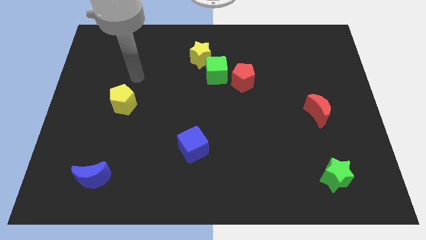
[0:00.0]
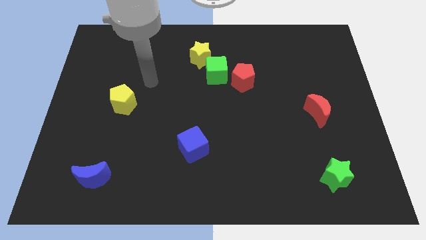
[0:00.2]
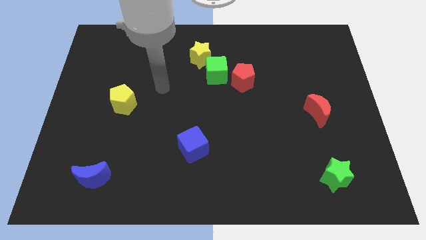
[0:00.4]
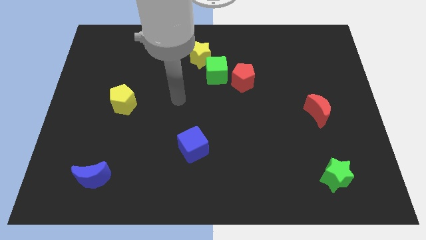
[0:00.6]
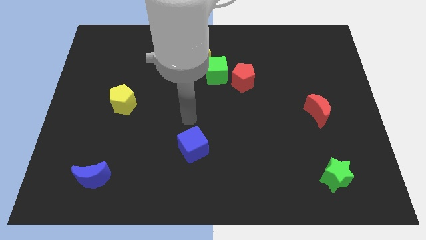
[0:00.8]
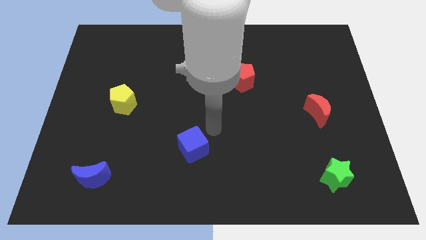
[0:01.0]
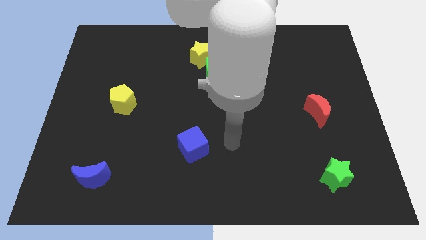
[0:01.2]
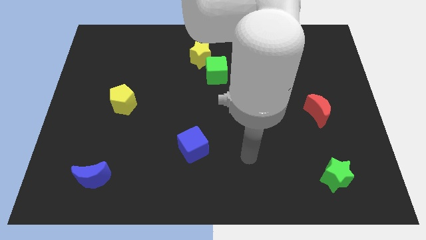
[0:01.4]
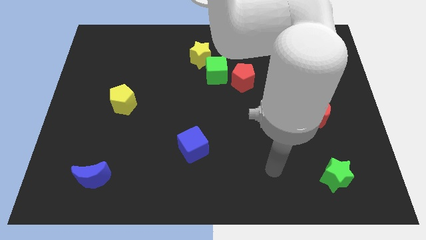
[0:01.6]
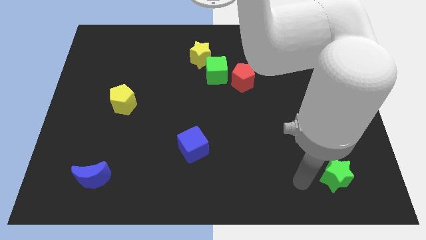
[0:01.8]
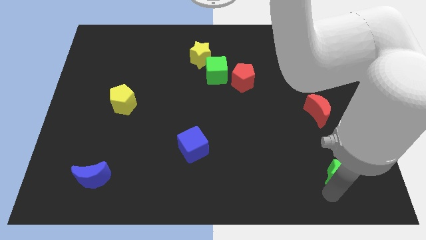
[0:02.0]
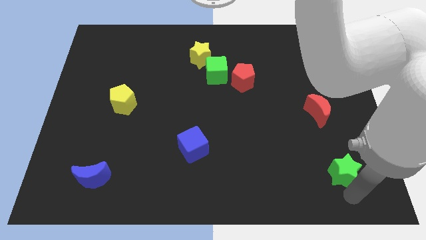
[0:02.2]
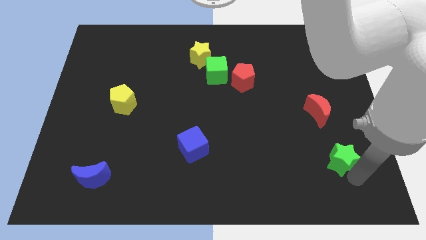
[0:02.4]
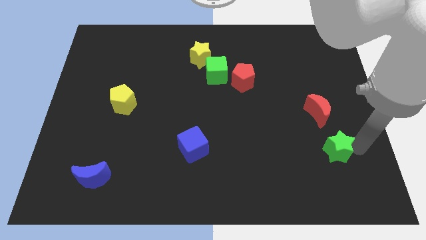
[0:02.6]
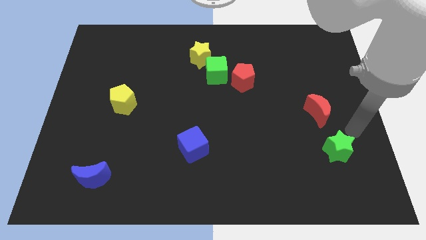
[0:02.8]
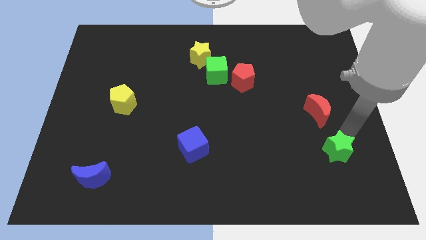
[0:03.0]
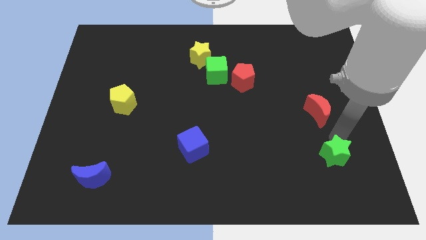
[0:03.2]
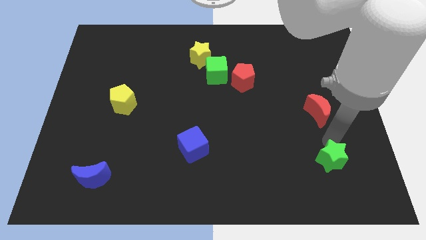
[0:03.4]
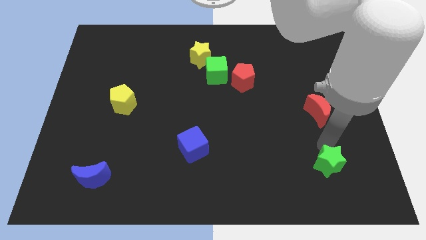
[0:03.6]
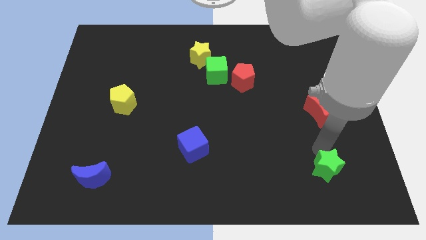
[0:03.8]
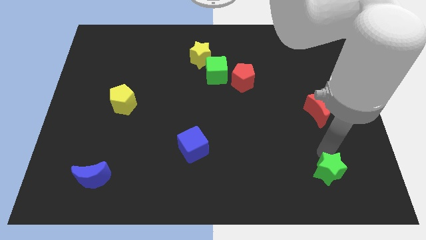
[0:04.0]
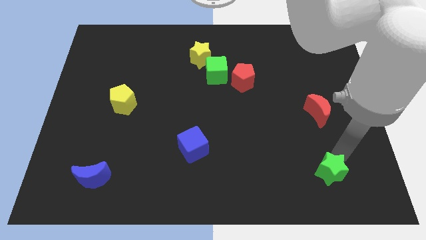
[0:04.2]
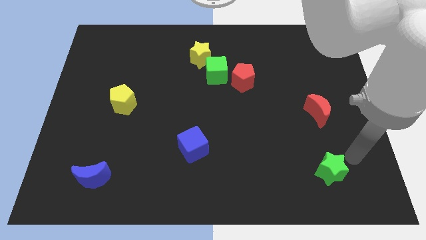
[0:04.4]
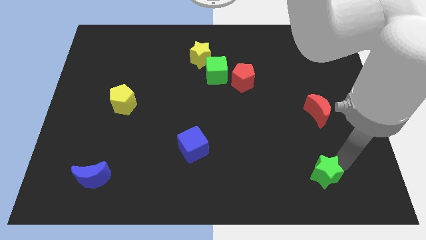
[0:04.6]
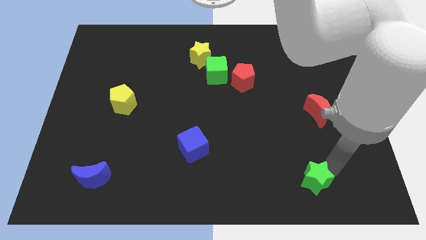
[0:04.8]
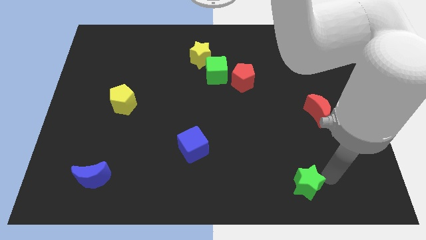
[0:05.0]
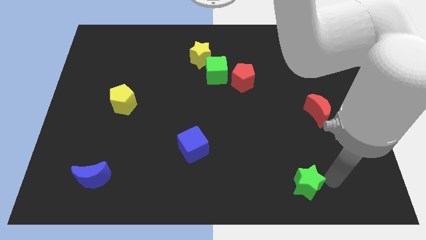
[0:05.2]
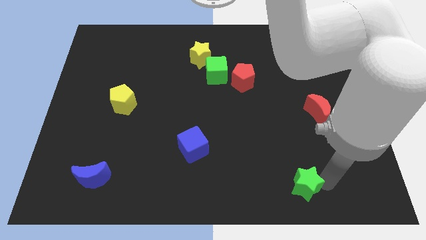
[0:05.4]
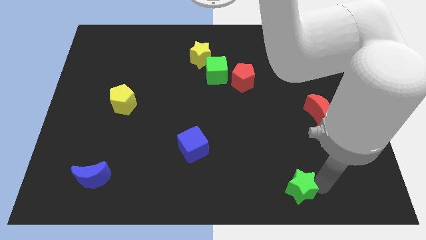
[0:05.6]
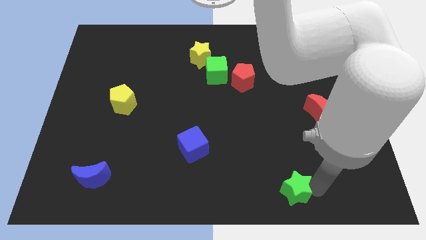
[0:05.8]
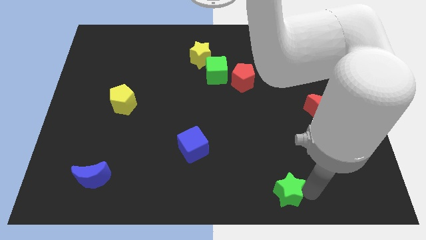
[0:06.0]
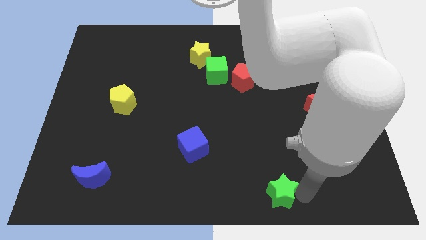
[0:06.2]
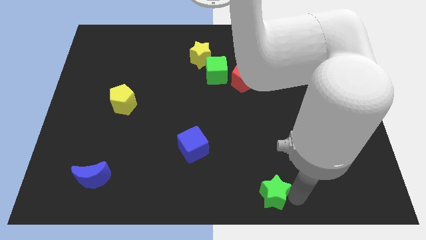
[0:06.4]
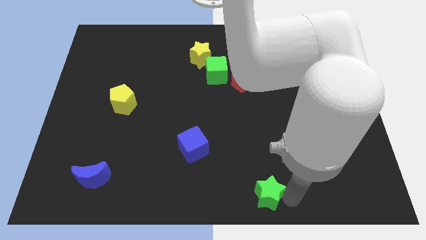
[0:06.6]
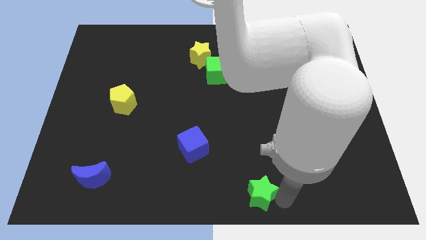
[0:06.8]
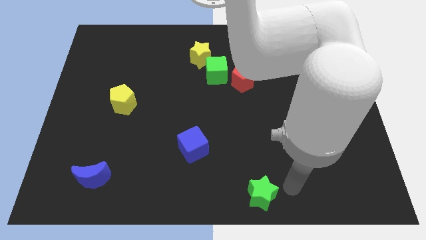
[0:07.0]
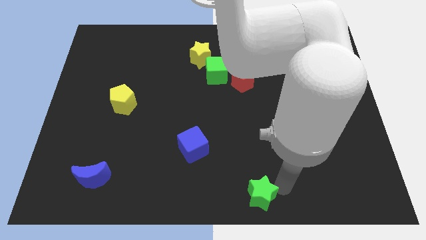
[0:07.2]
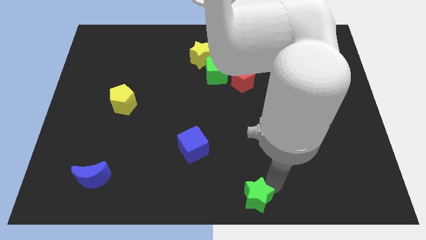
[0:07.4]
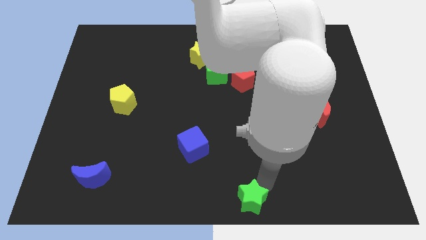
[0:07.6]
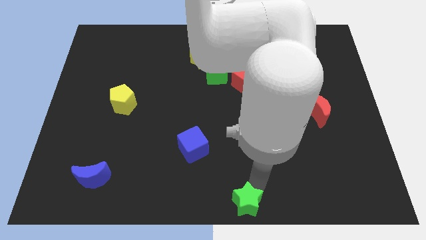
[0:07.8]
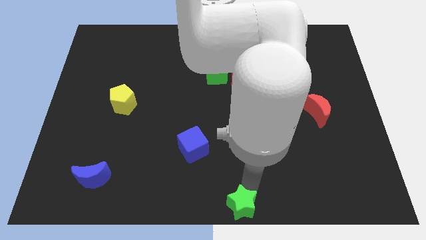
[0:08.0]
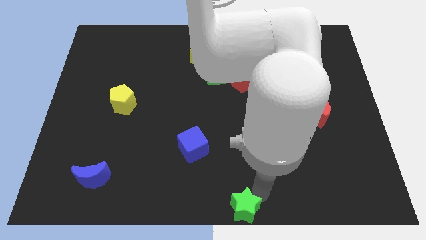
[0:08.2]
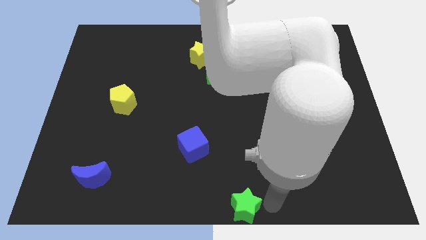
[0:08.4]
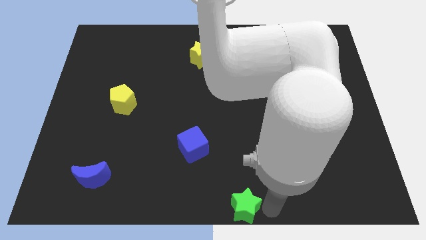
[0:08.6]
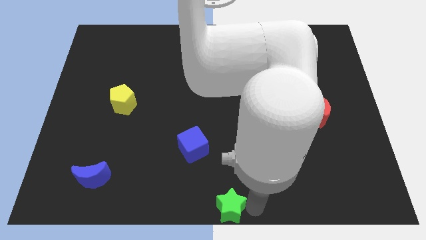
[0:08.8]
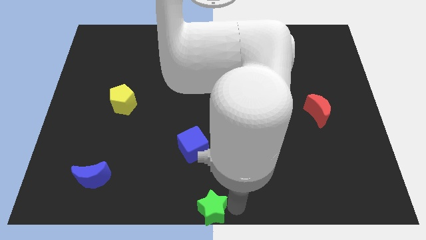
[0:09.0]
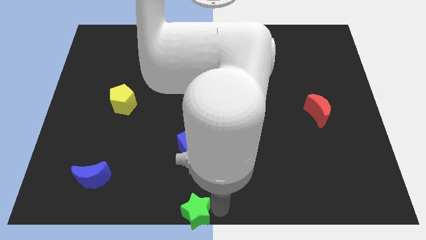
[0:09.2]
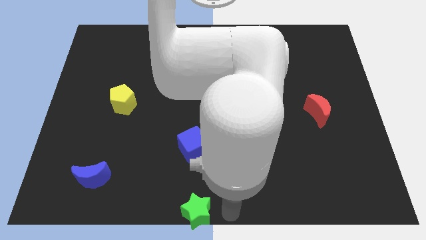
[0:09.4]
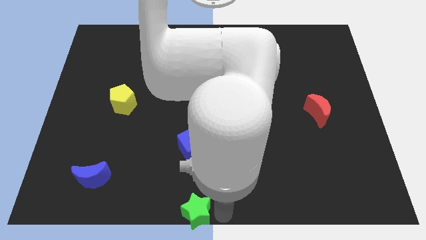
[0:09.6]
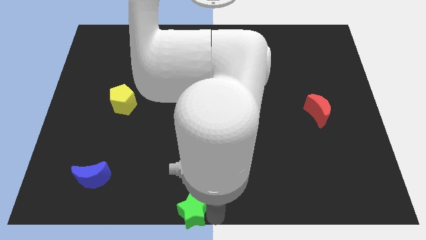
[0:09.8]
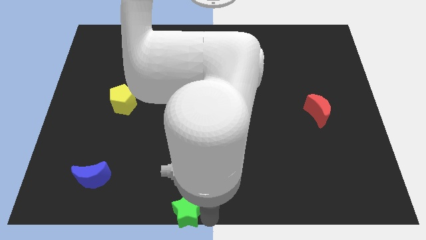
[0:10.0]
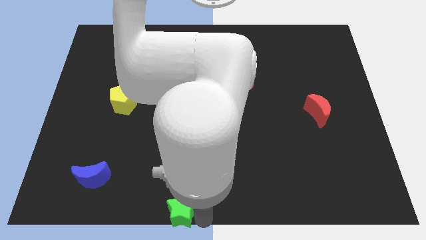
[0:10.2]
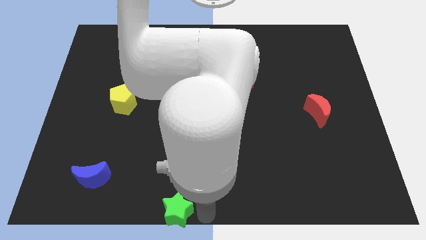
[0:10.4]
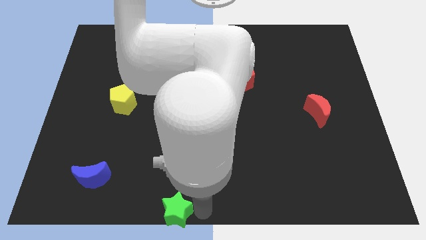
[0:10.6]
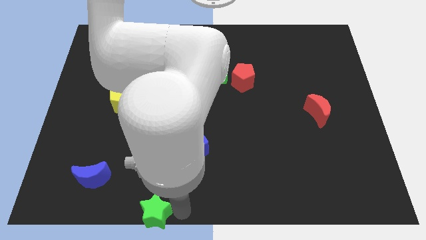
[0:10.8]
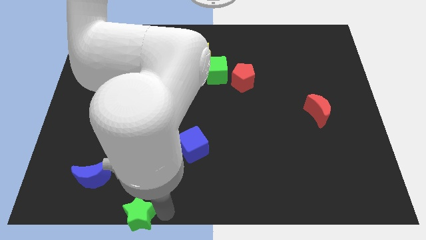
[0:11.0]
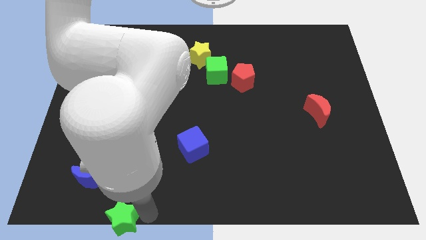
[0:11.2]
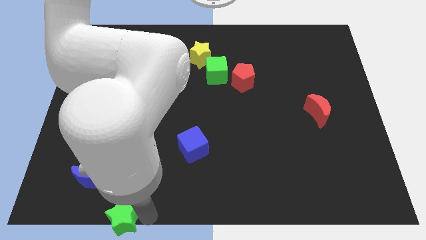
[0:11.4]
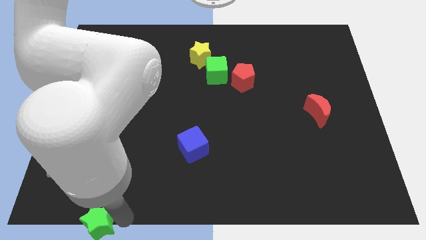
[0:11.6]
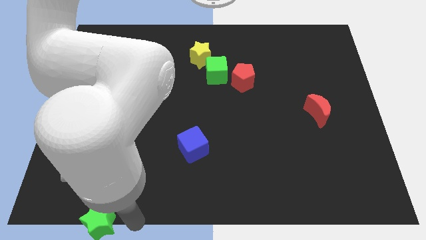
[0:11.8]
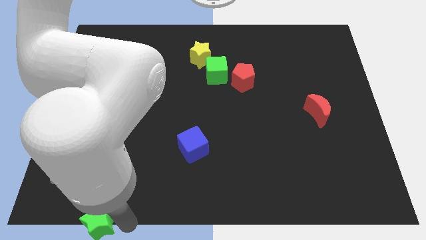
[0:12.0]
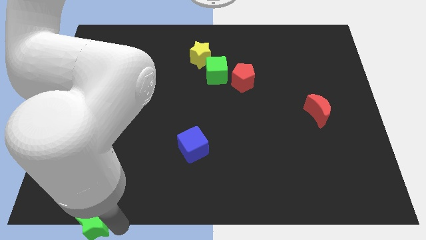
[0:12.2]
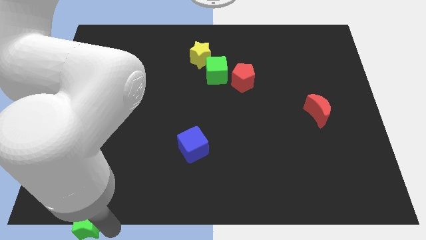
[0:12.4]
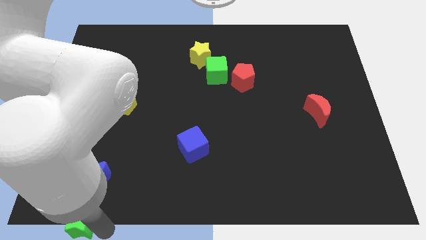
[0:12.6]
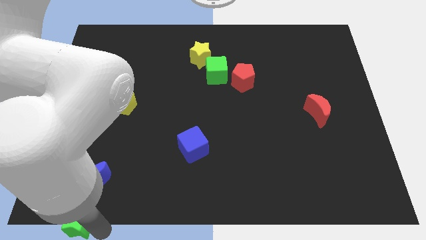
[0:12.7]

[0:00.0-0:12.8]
move the green star to the bottom left of the board

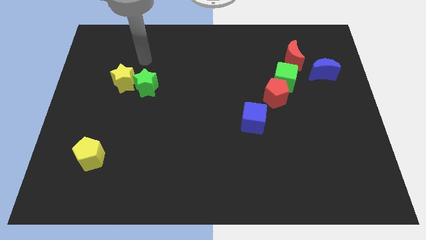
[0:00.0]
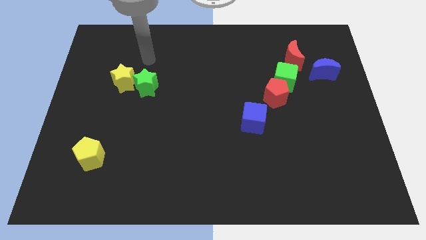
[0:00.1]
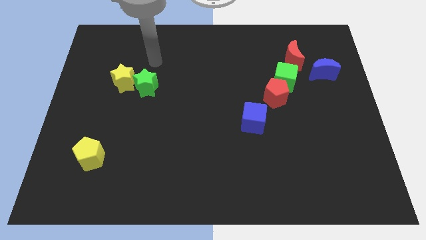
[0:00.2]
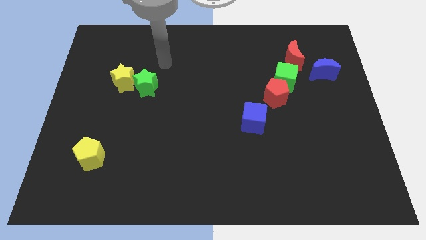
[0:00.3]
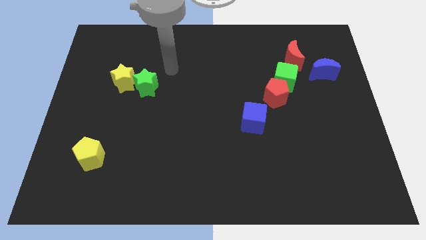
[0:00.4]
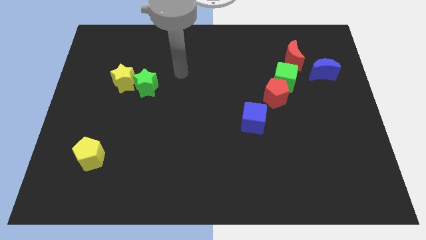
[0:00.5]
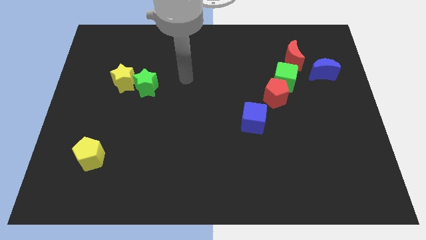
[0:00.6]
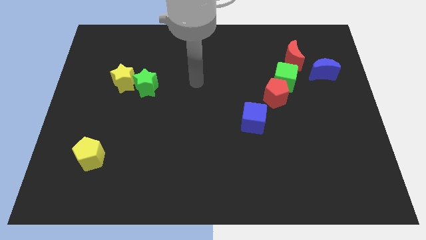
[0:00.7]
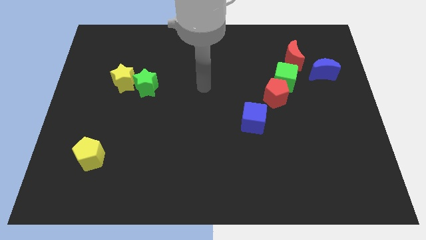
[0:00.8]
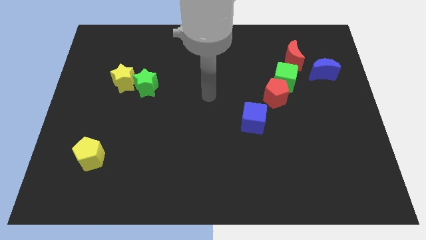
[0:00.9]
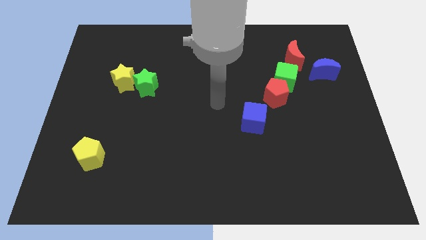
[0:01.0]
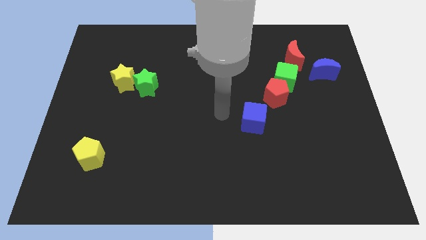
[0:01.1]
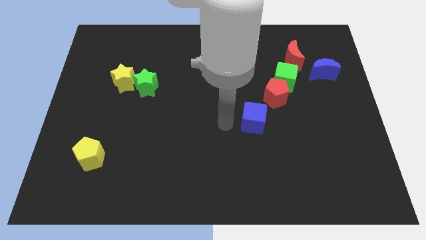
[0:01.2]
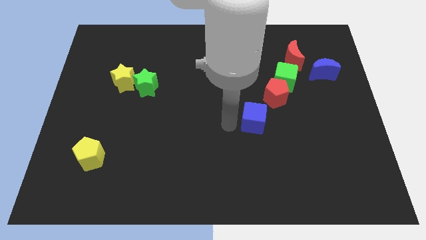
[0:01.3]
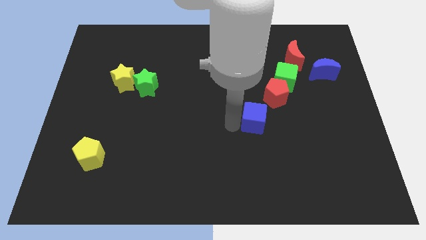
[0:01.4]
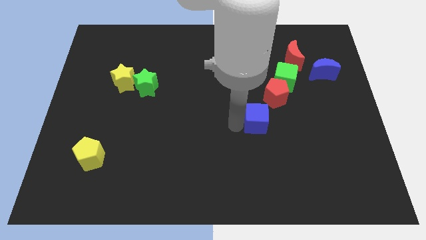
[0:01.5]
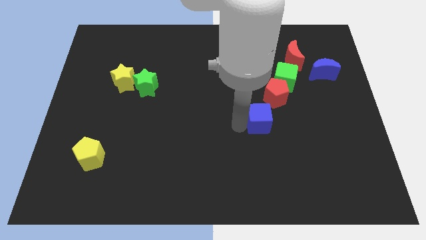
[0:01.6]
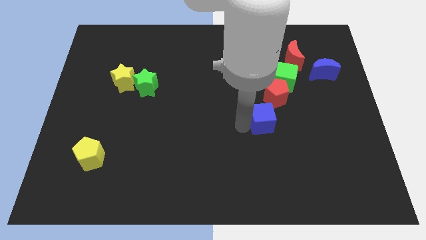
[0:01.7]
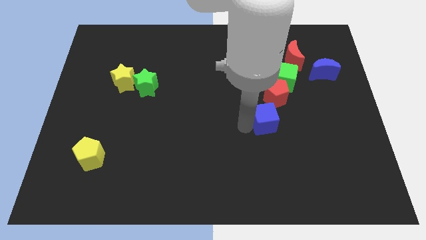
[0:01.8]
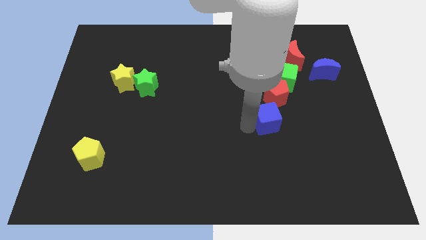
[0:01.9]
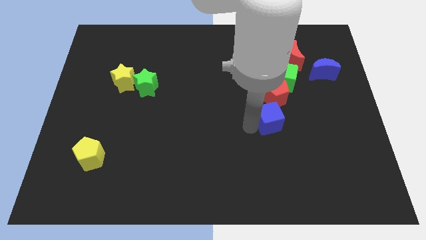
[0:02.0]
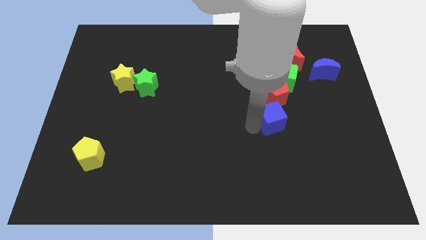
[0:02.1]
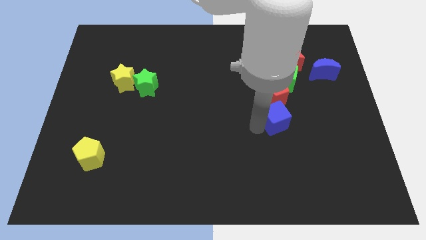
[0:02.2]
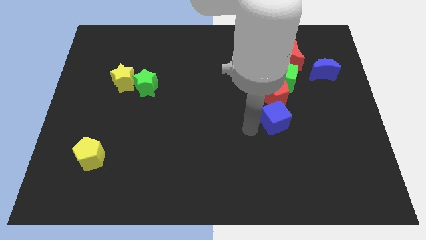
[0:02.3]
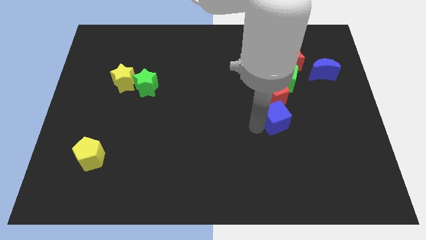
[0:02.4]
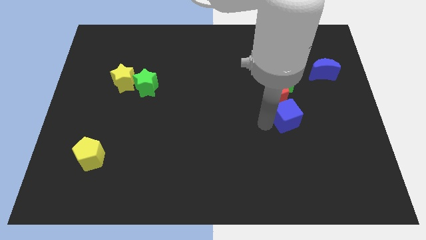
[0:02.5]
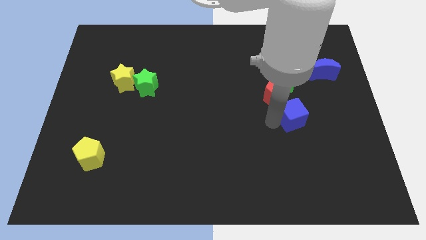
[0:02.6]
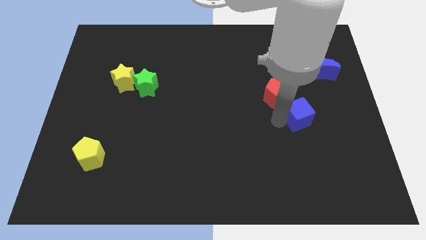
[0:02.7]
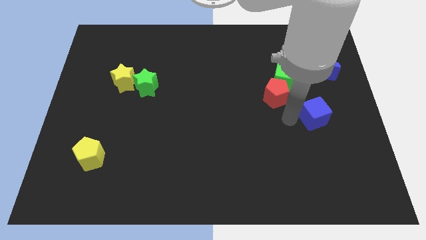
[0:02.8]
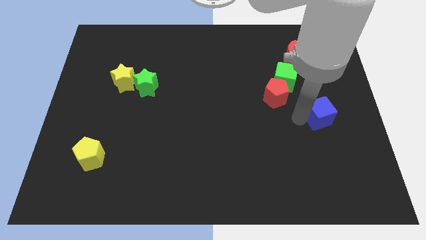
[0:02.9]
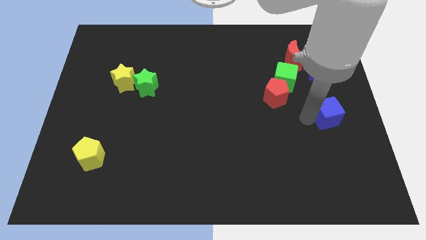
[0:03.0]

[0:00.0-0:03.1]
slide the blue cube to the right side
